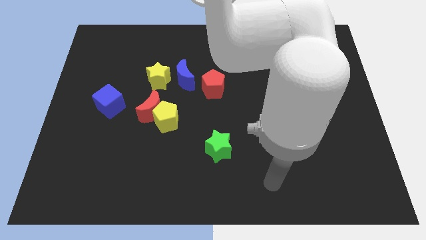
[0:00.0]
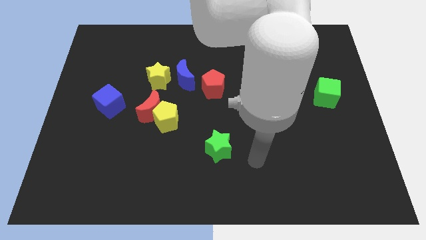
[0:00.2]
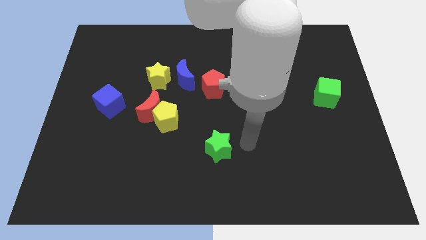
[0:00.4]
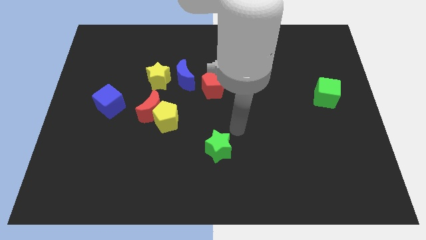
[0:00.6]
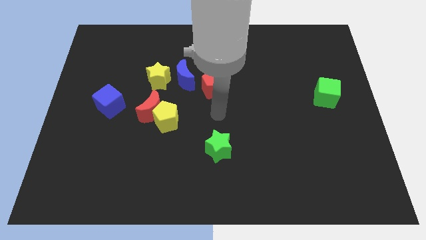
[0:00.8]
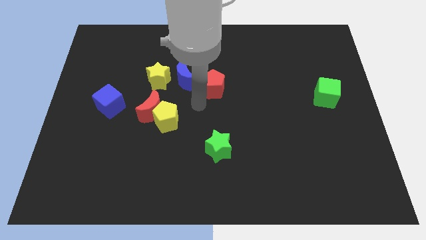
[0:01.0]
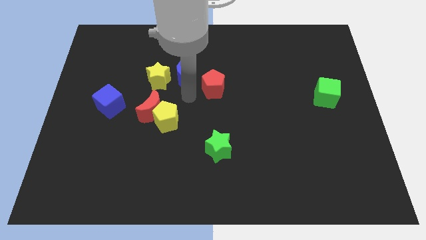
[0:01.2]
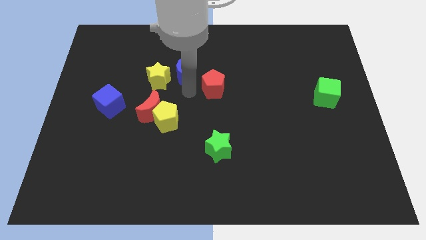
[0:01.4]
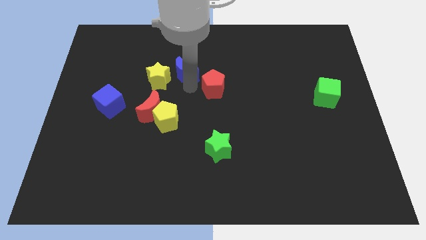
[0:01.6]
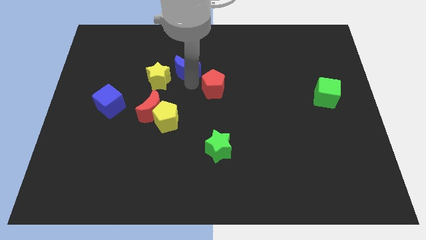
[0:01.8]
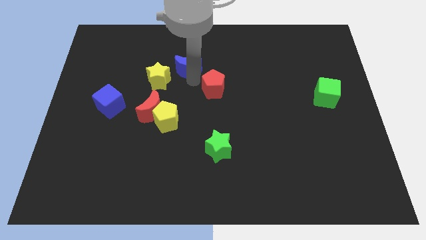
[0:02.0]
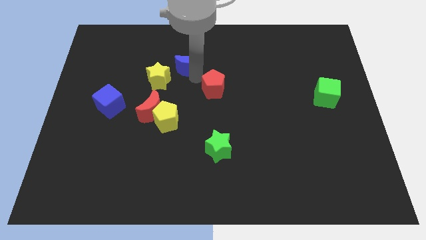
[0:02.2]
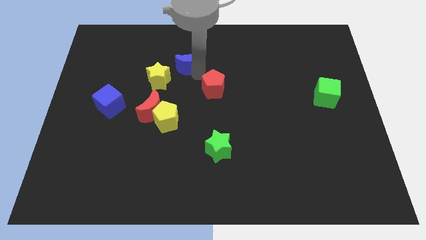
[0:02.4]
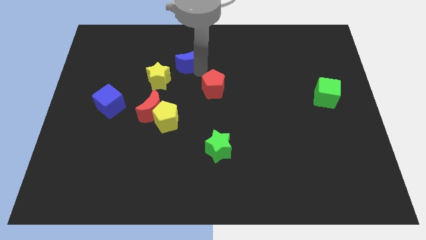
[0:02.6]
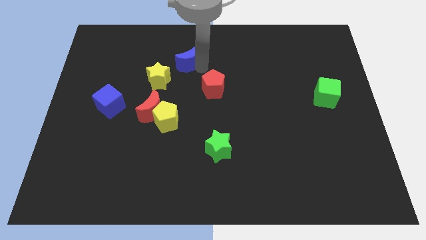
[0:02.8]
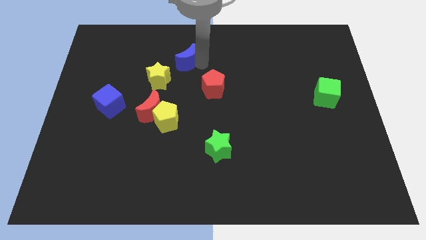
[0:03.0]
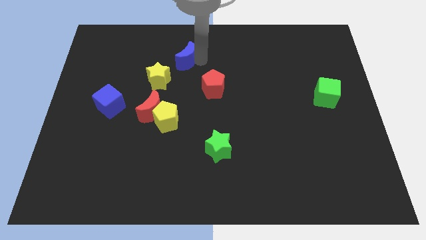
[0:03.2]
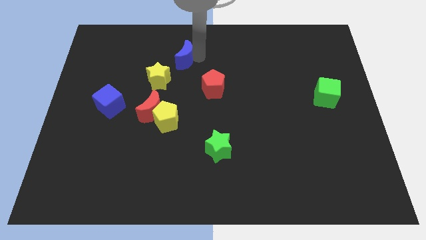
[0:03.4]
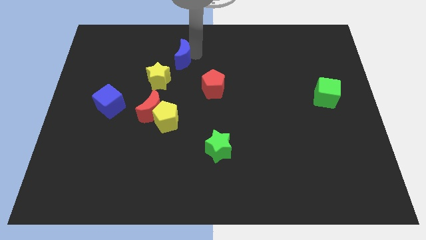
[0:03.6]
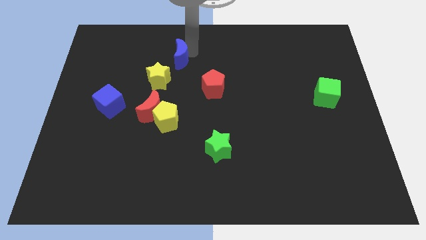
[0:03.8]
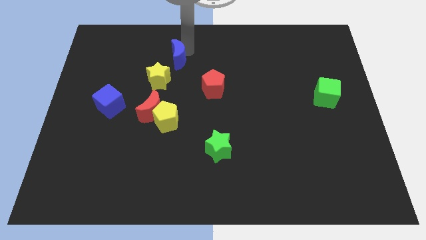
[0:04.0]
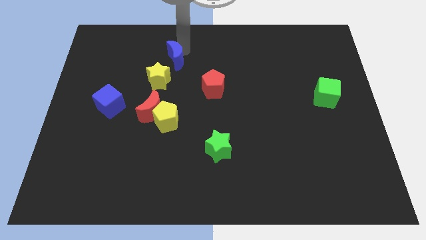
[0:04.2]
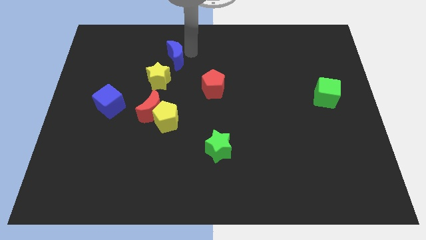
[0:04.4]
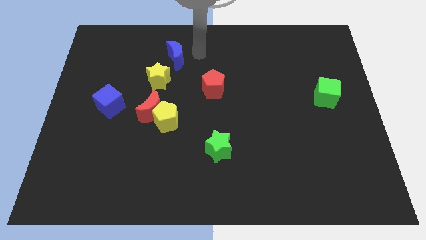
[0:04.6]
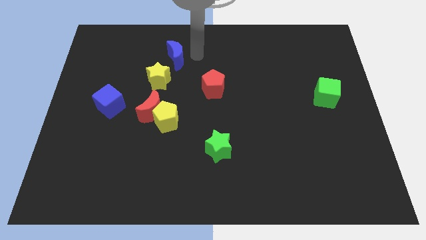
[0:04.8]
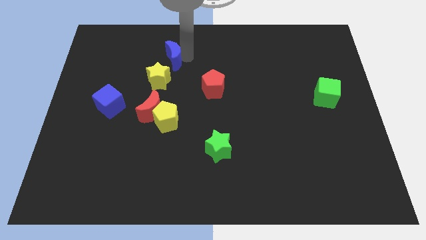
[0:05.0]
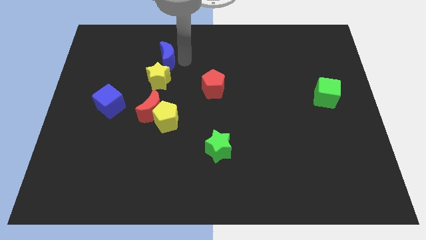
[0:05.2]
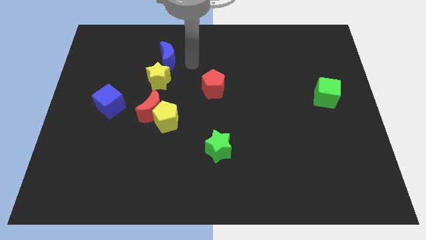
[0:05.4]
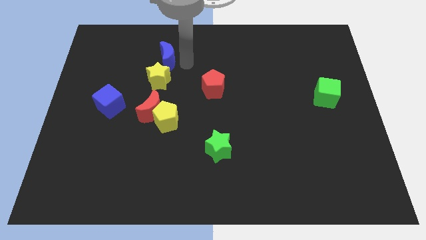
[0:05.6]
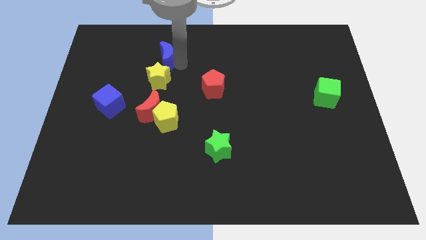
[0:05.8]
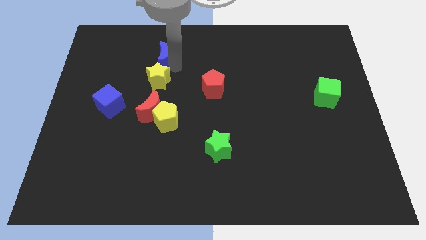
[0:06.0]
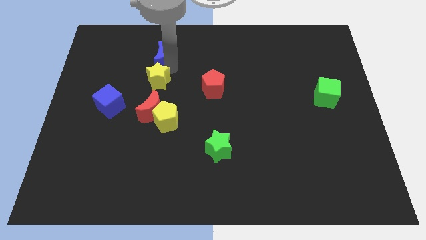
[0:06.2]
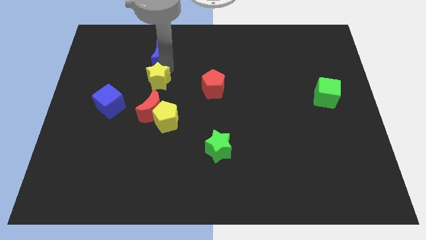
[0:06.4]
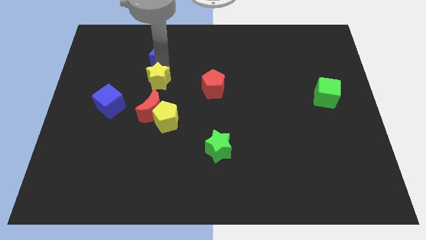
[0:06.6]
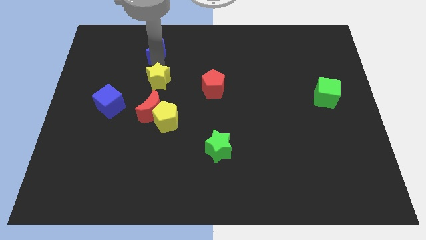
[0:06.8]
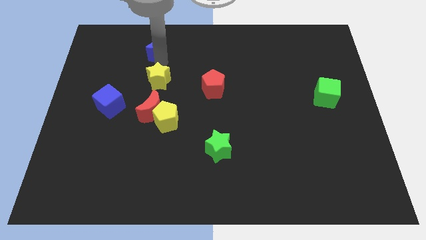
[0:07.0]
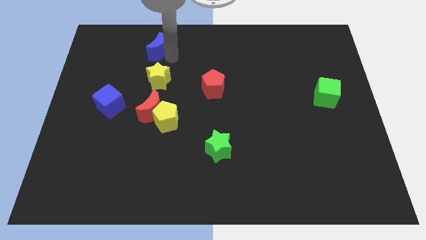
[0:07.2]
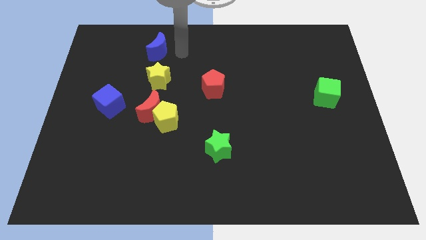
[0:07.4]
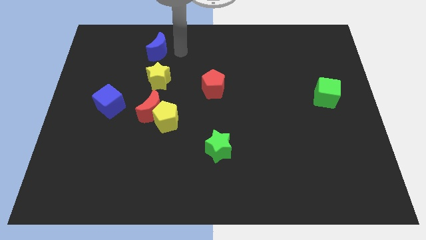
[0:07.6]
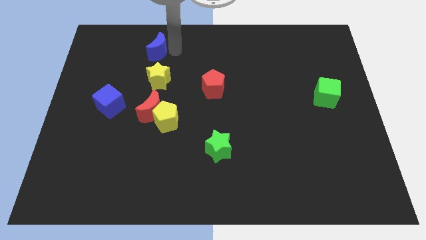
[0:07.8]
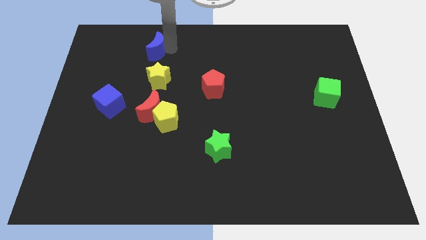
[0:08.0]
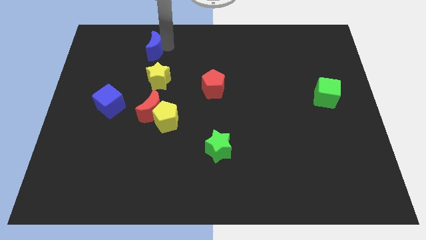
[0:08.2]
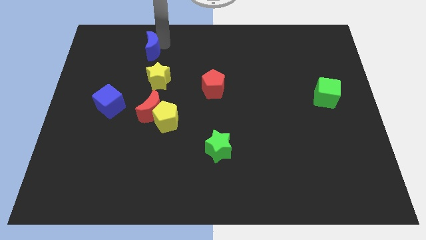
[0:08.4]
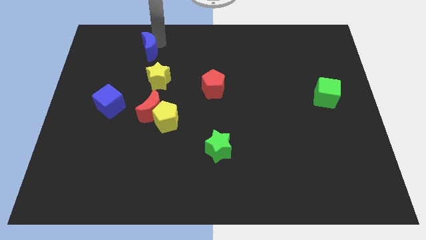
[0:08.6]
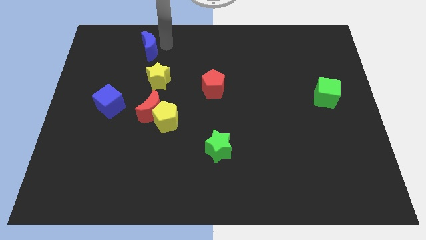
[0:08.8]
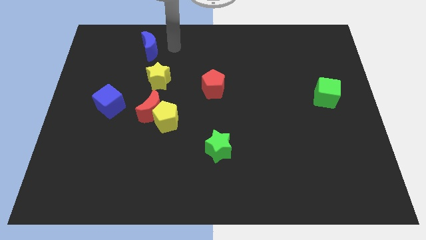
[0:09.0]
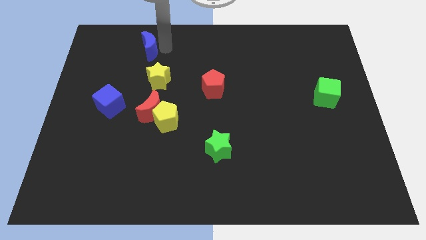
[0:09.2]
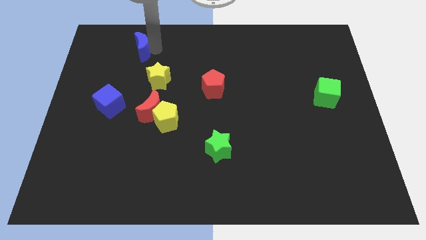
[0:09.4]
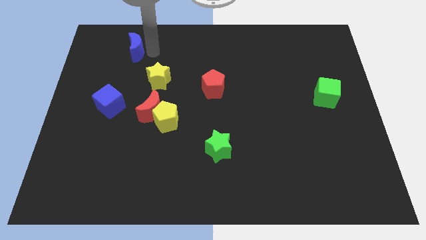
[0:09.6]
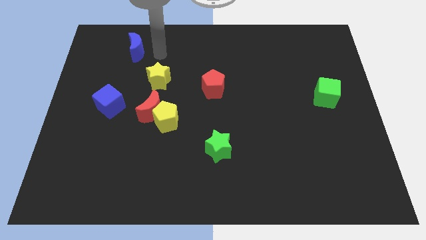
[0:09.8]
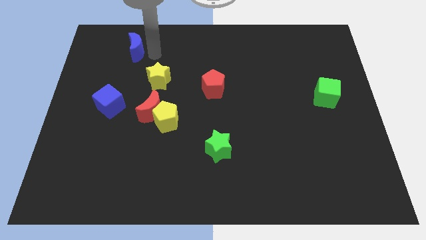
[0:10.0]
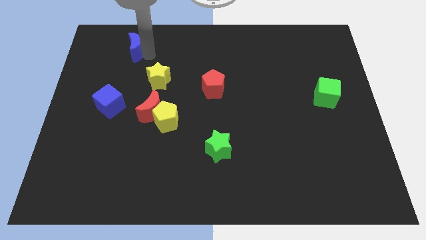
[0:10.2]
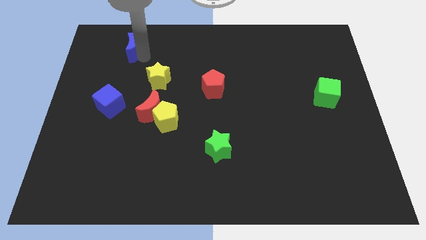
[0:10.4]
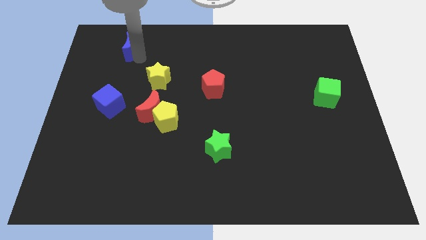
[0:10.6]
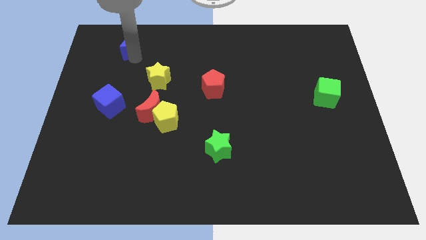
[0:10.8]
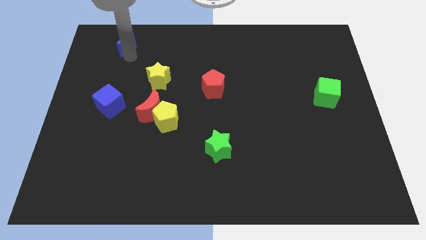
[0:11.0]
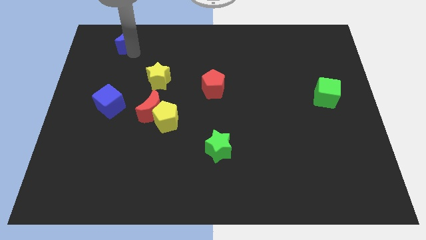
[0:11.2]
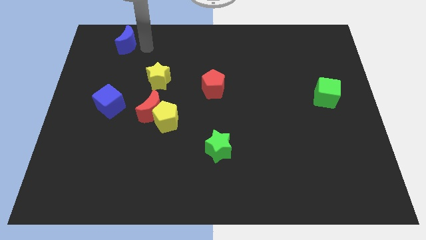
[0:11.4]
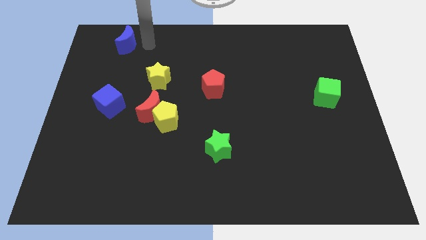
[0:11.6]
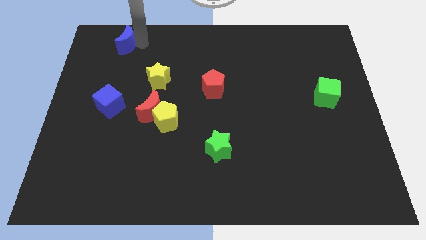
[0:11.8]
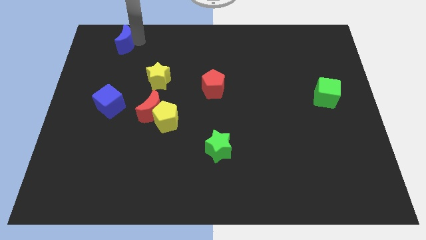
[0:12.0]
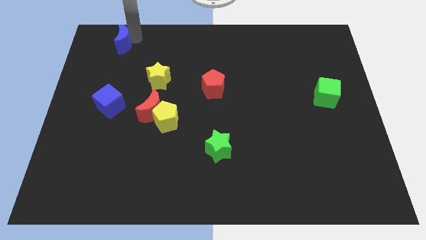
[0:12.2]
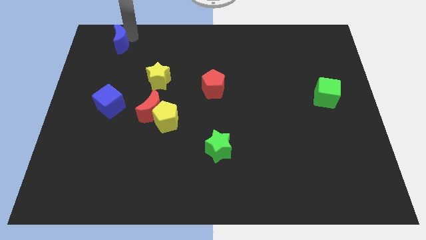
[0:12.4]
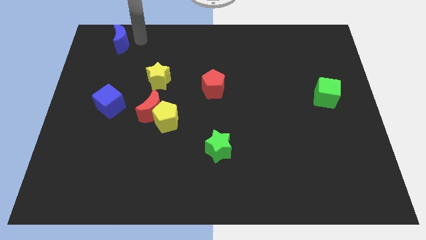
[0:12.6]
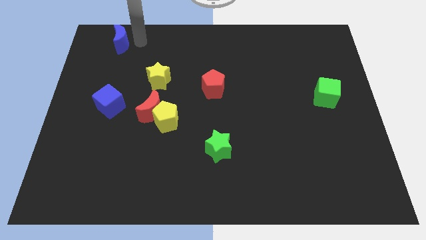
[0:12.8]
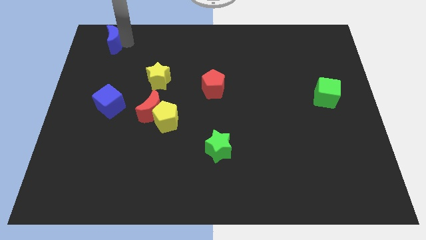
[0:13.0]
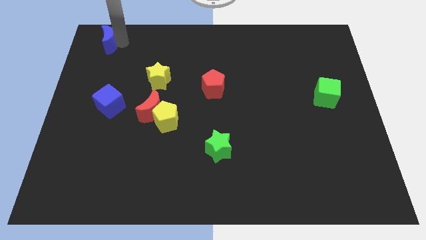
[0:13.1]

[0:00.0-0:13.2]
move the blue moon to the upper left corner
